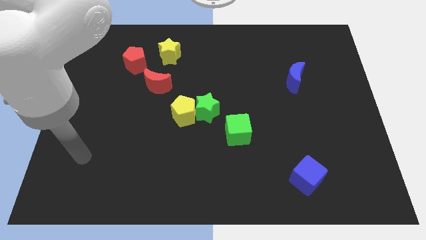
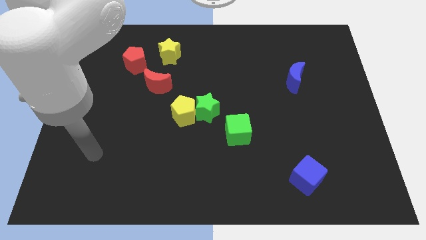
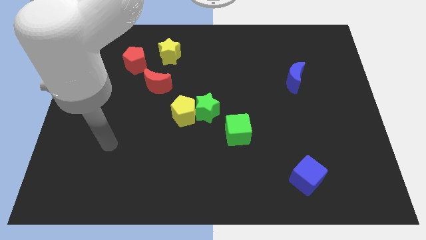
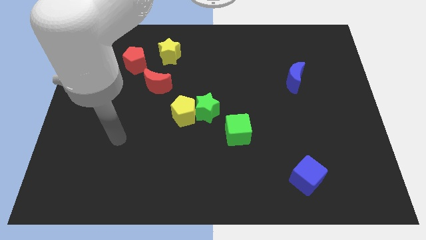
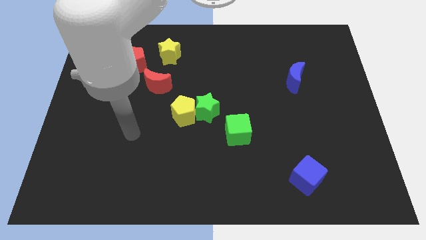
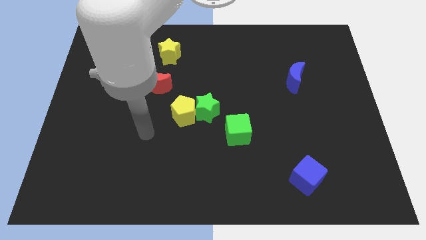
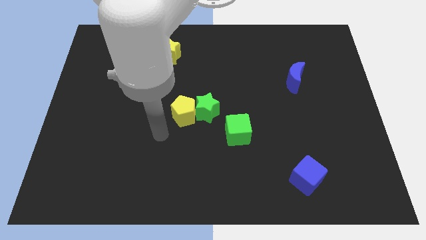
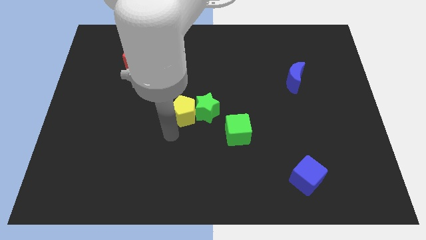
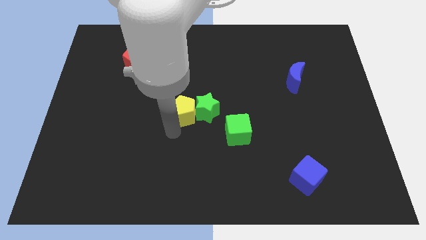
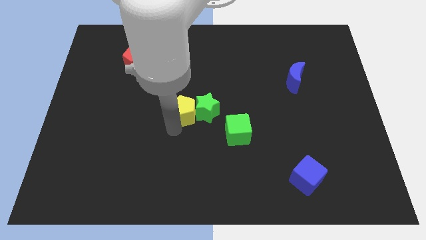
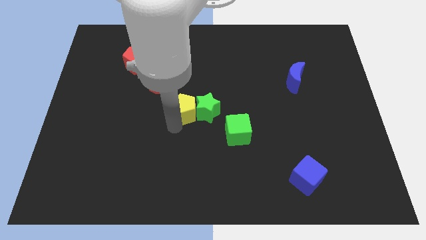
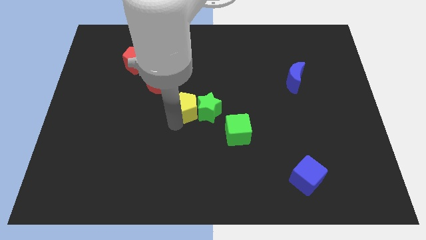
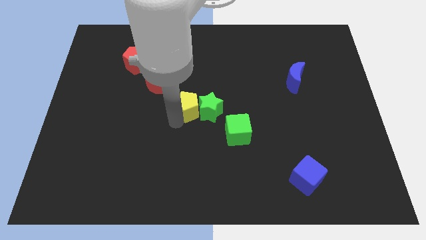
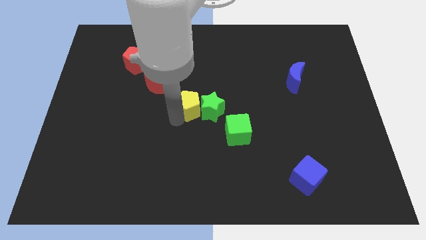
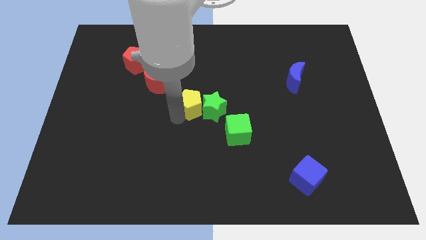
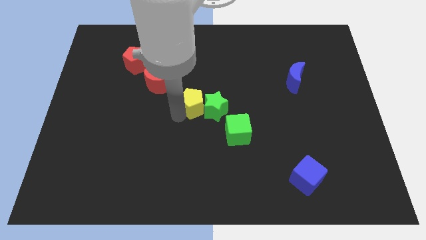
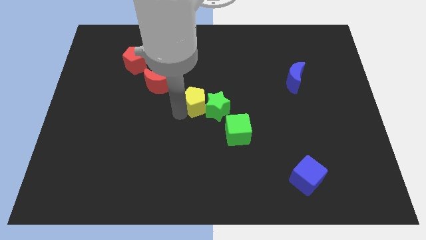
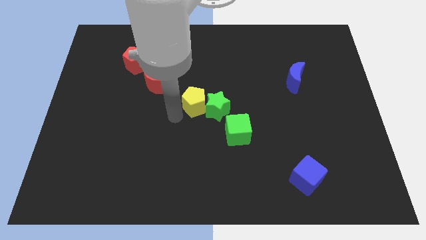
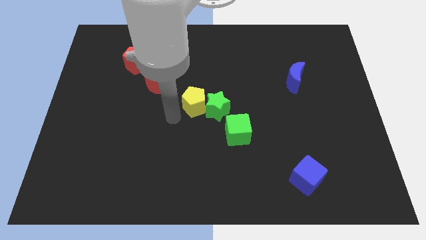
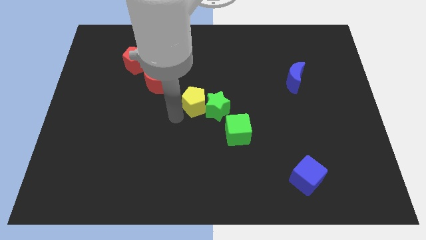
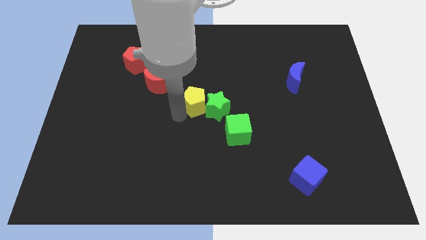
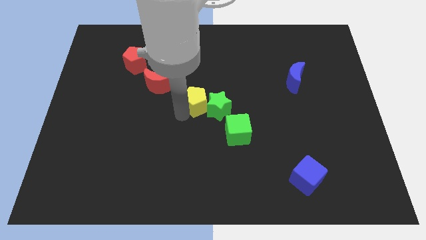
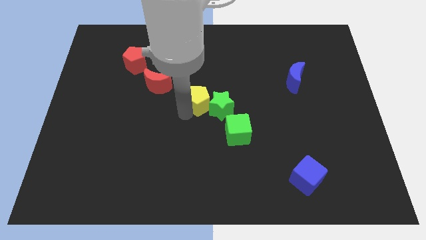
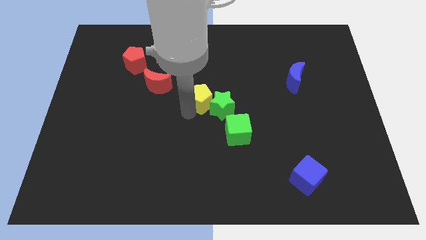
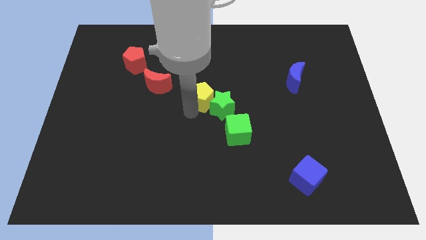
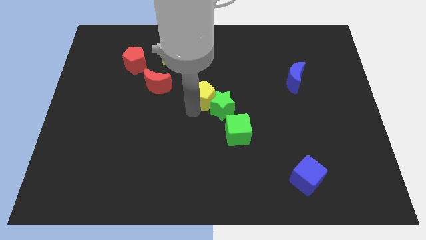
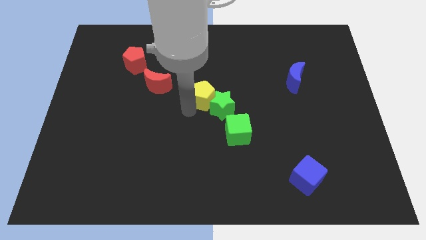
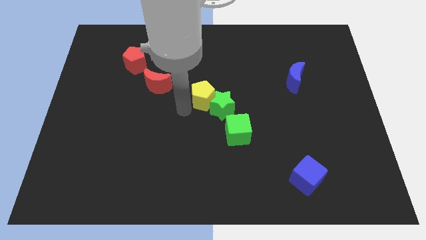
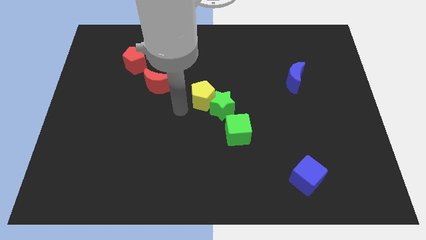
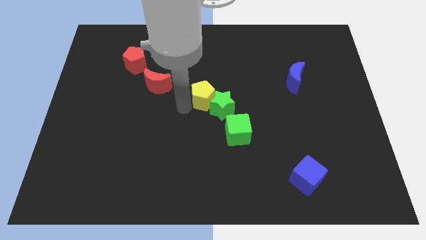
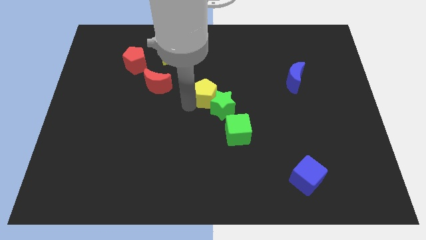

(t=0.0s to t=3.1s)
slightly slide the yellow pentagon upwards and then to the right

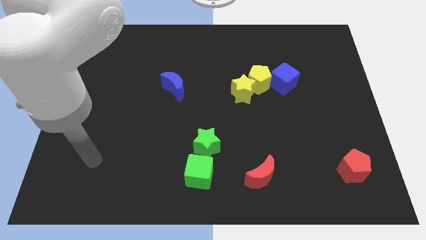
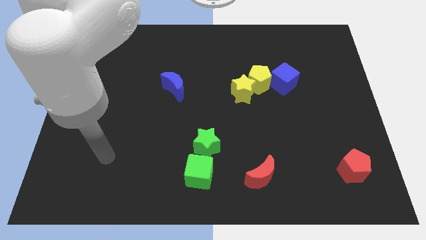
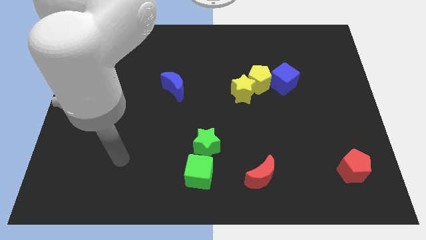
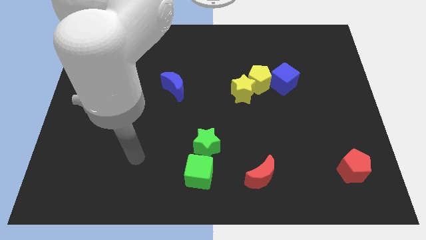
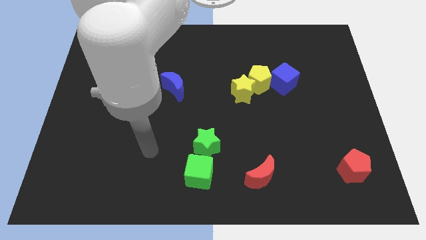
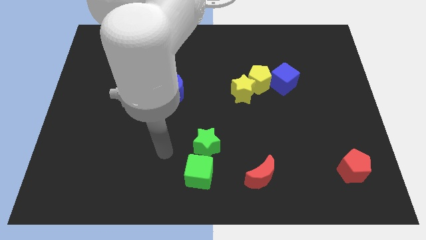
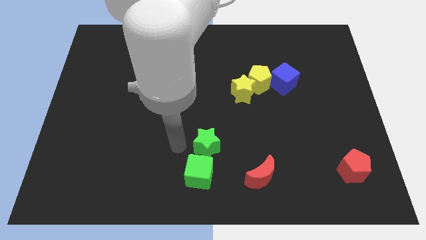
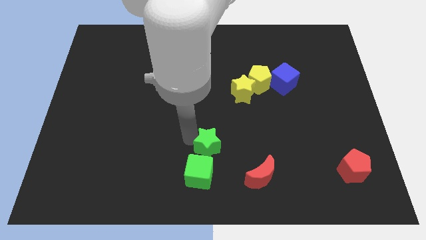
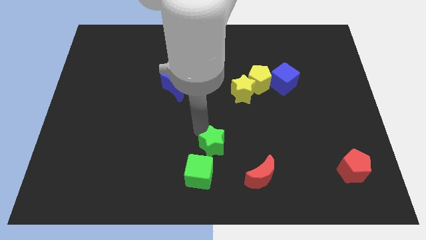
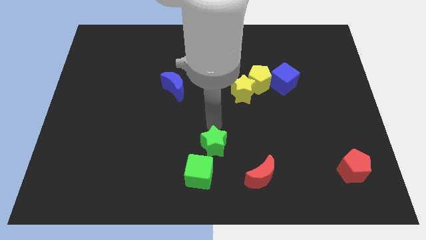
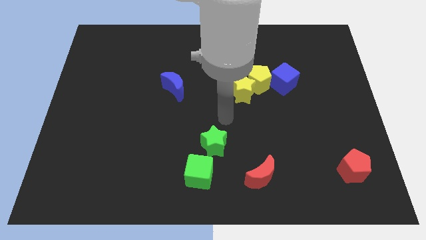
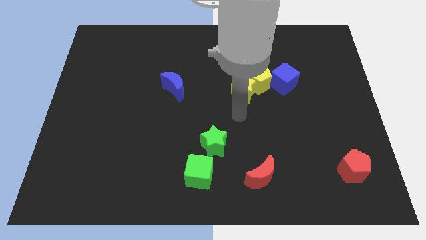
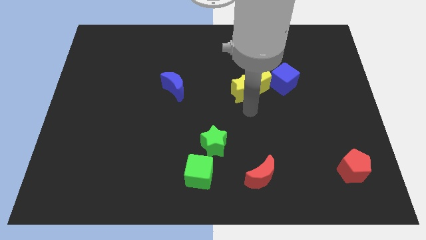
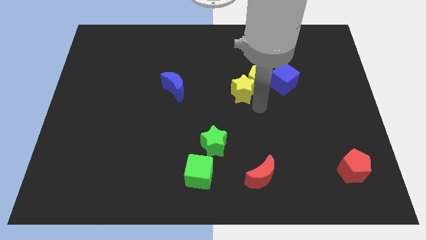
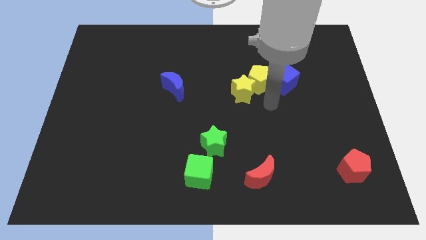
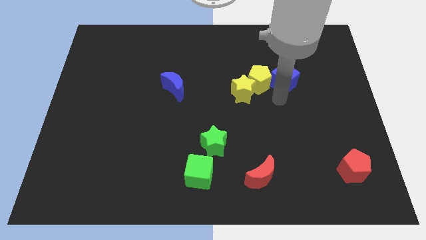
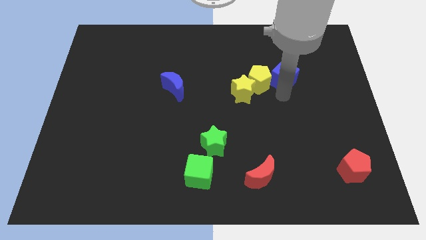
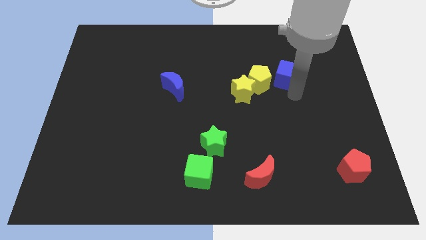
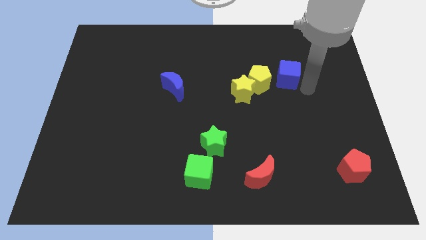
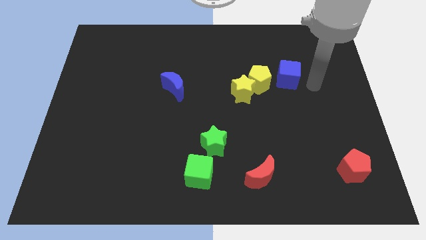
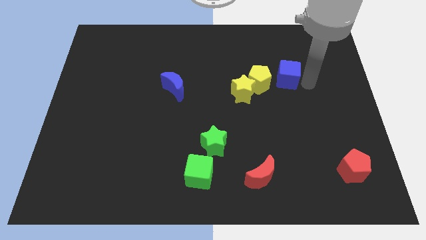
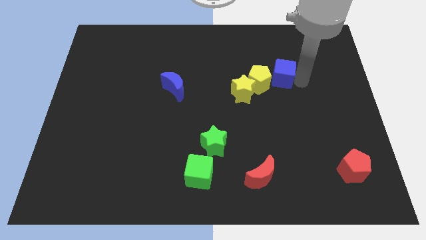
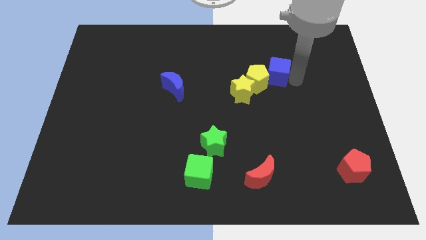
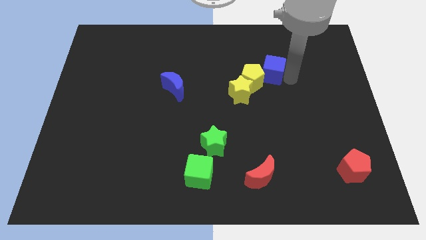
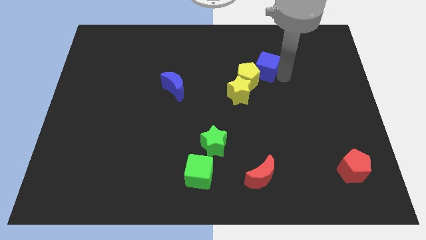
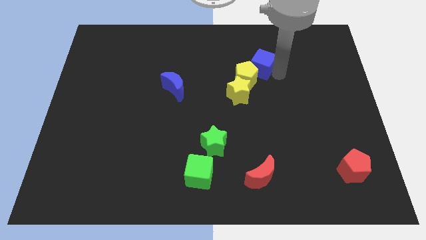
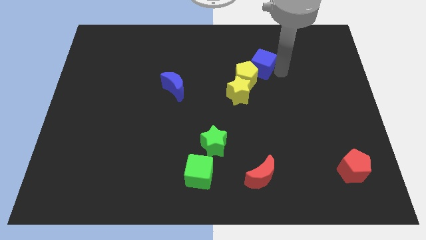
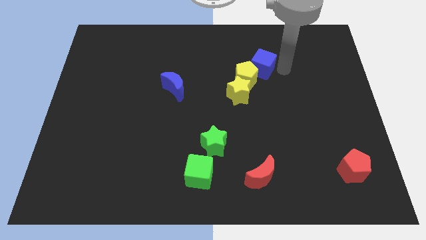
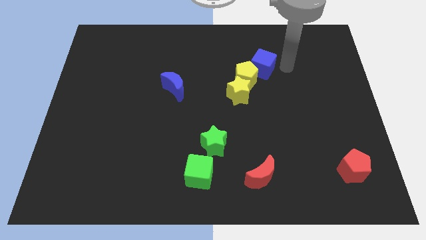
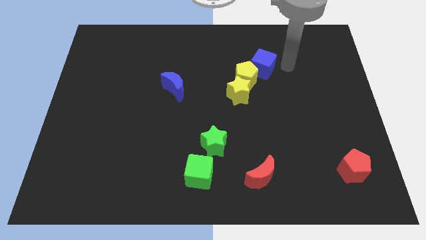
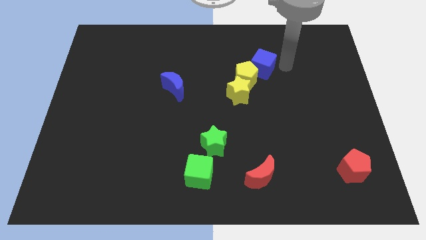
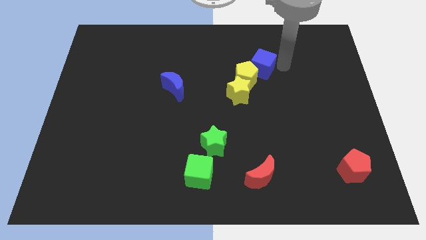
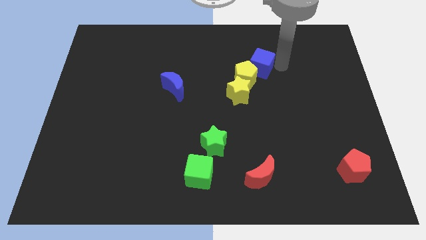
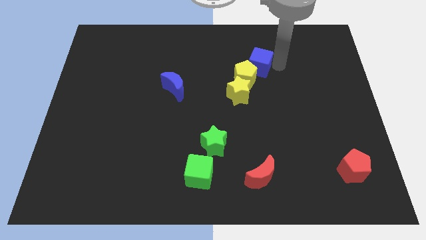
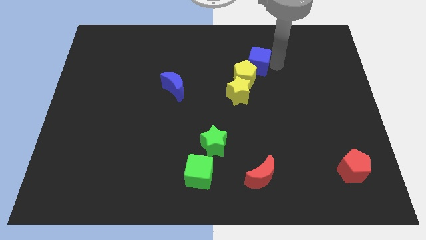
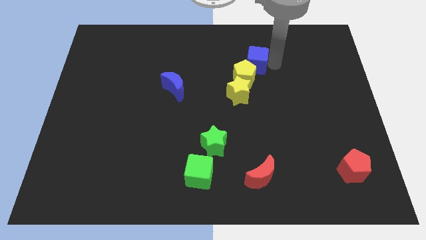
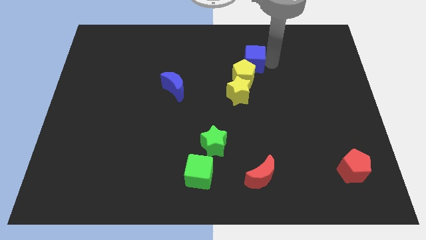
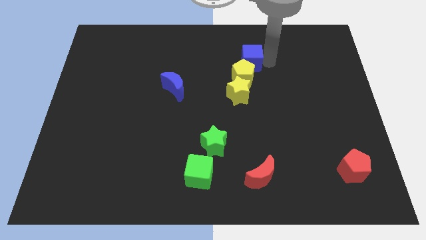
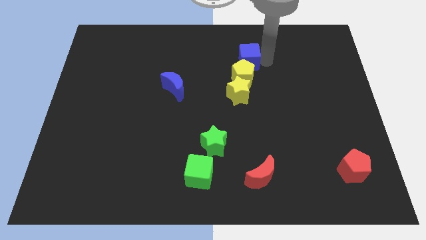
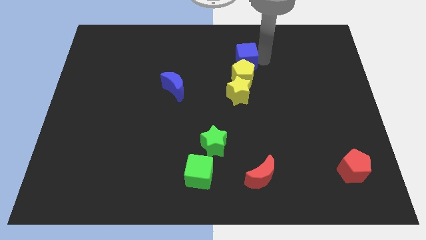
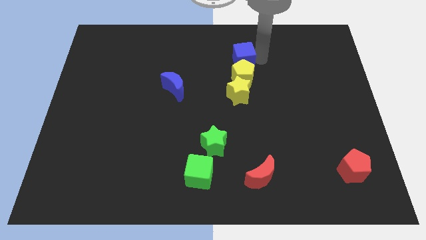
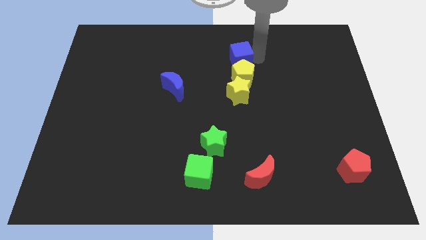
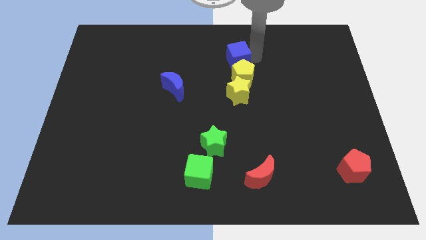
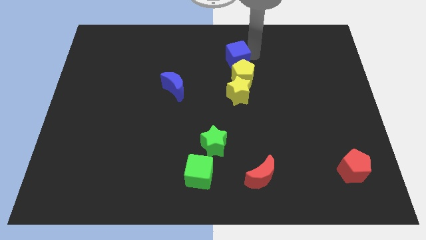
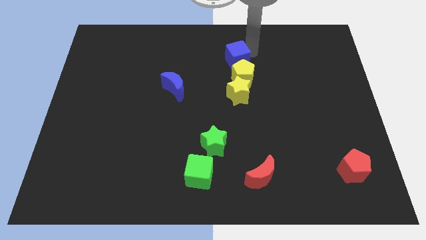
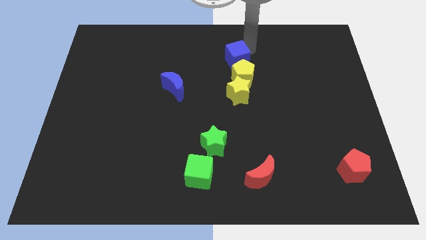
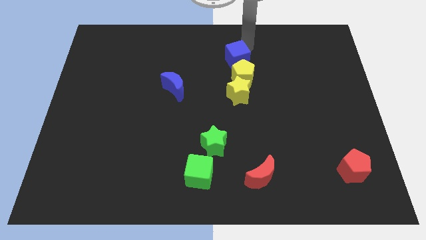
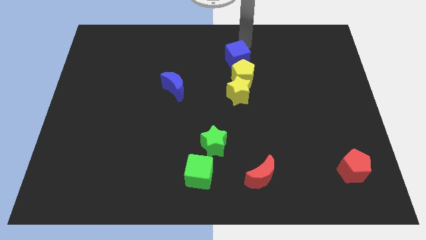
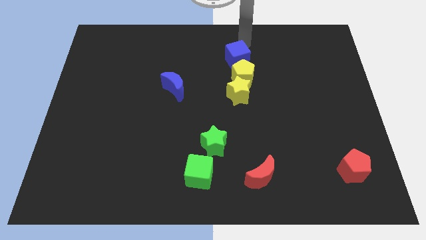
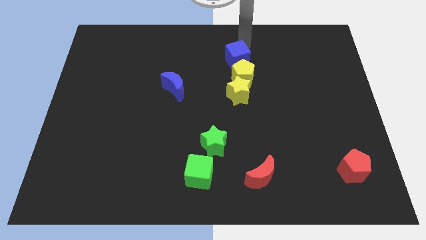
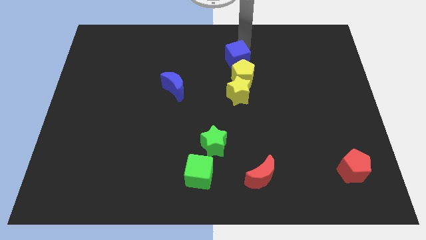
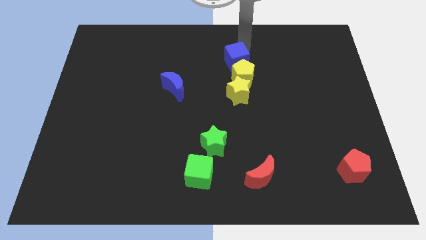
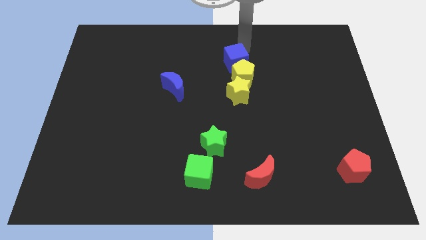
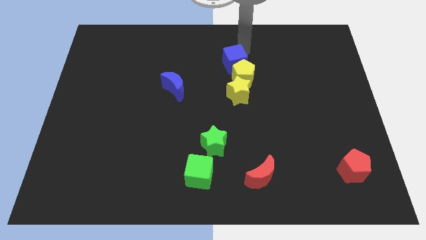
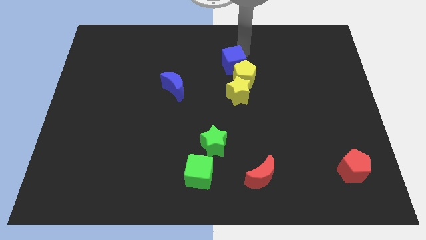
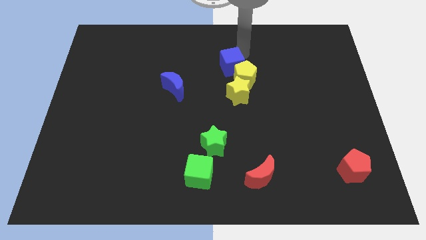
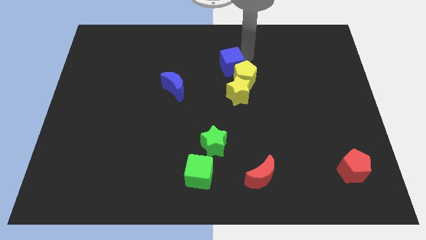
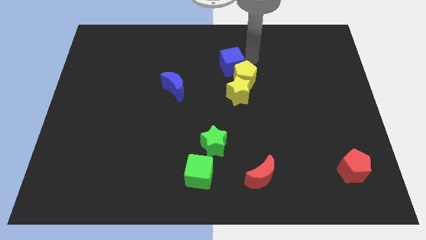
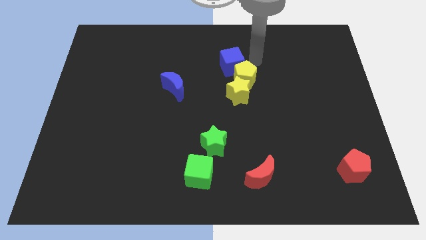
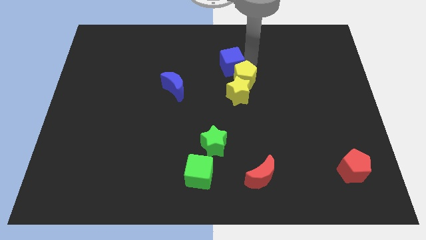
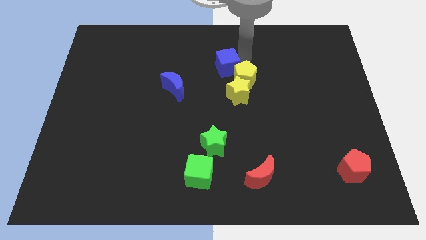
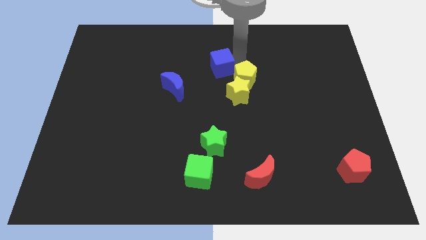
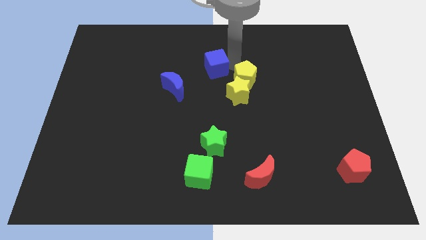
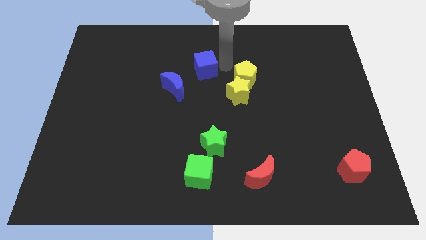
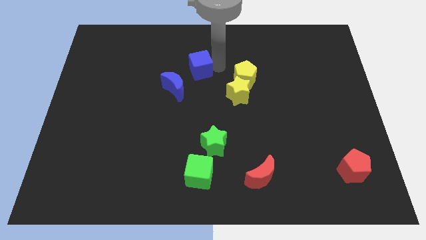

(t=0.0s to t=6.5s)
move the blue cube to the left
